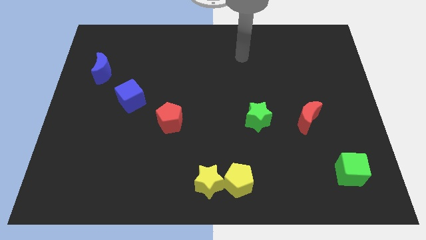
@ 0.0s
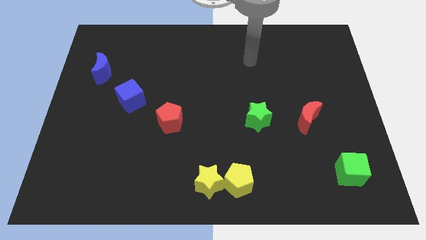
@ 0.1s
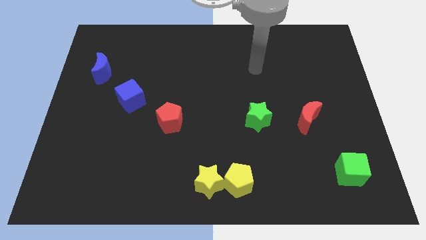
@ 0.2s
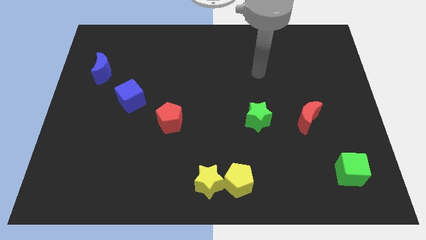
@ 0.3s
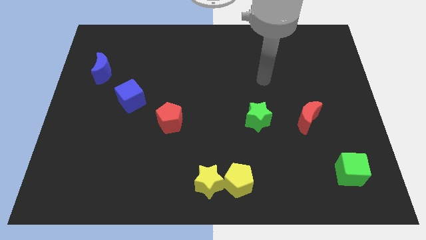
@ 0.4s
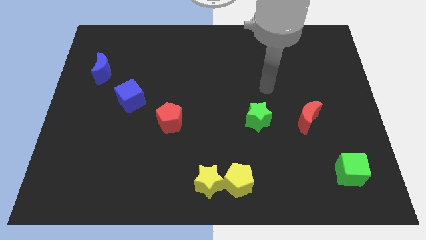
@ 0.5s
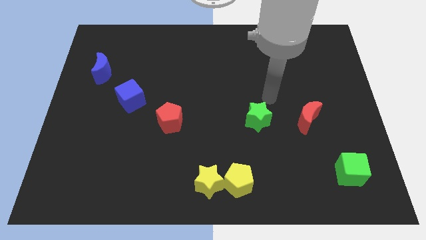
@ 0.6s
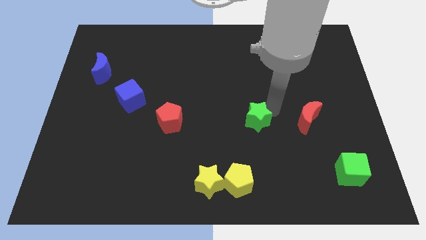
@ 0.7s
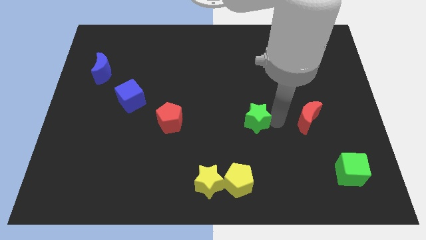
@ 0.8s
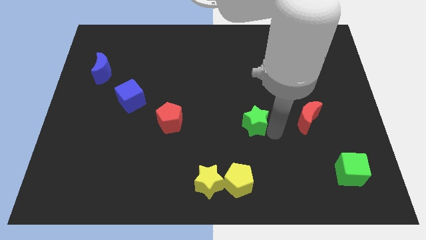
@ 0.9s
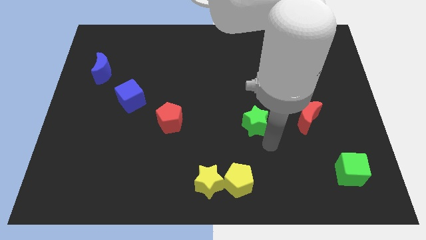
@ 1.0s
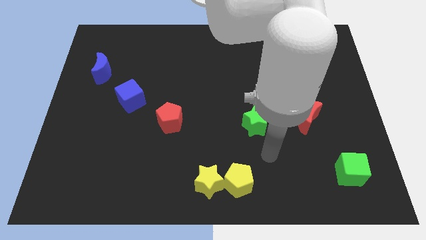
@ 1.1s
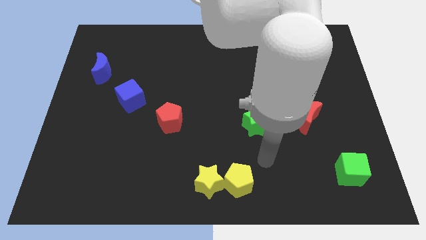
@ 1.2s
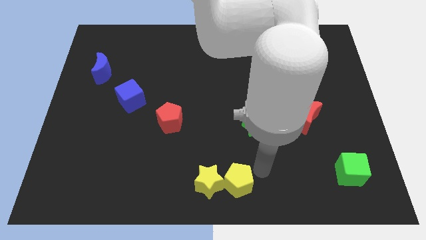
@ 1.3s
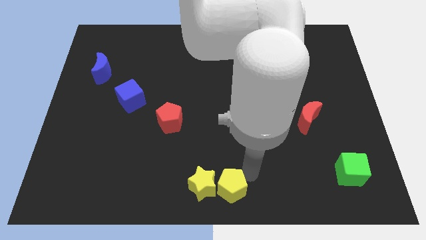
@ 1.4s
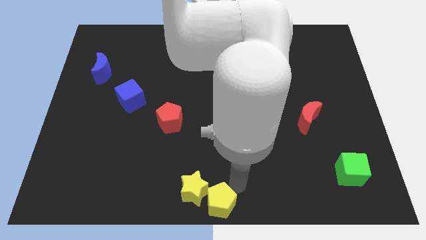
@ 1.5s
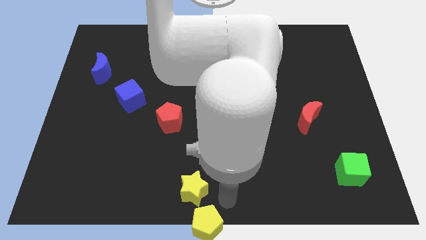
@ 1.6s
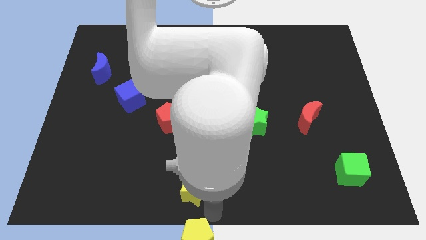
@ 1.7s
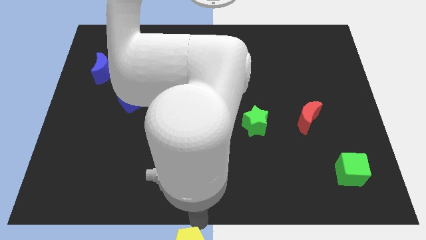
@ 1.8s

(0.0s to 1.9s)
pull the yellow star apart from the yellow pentagon

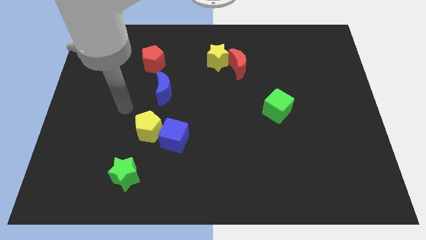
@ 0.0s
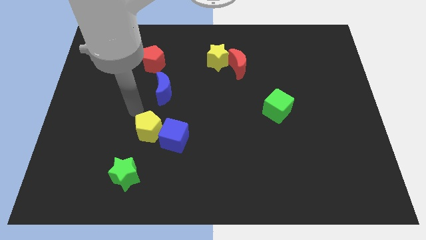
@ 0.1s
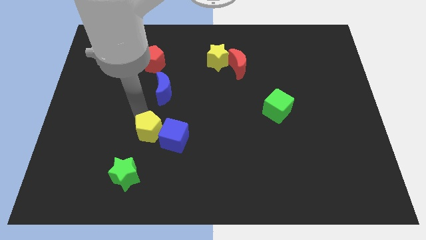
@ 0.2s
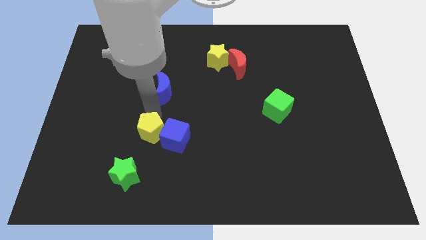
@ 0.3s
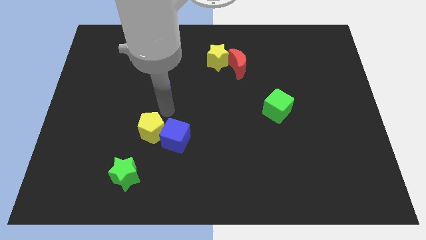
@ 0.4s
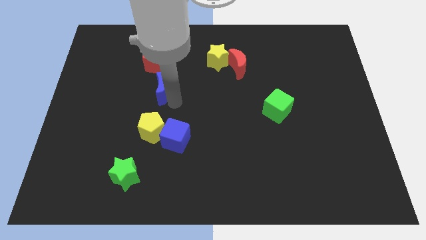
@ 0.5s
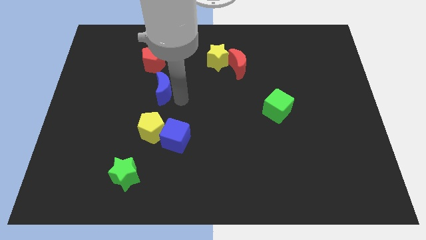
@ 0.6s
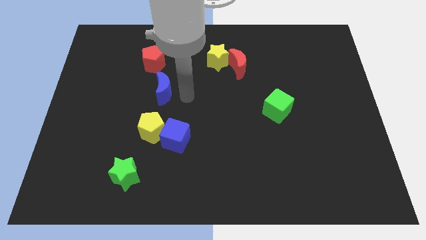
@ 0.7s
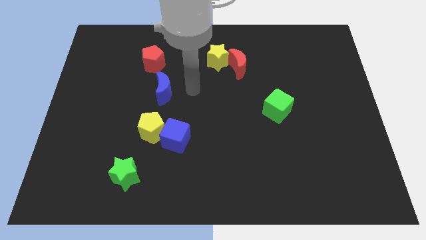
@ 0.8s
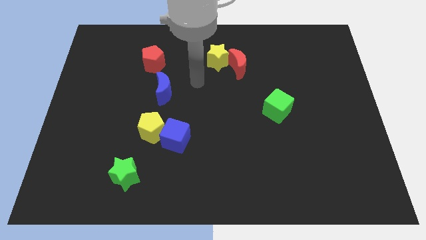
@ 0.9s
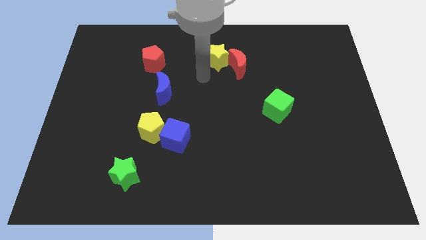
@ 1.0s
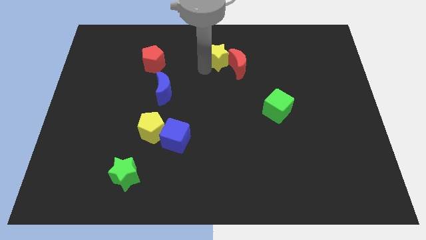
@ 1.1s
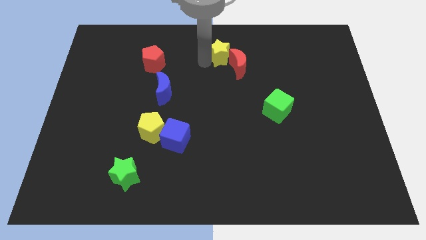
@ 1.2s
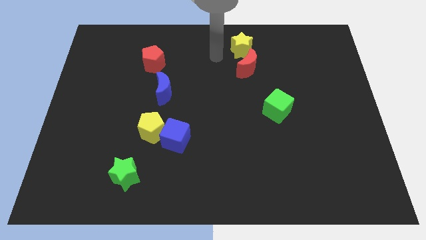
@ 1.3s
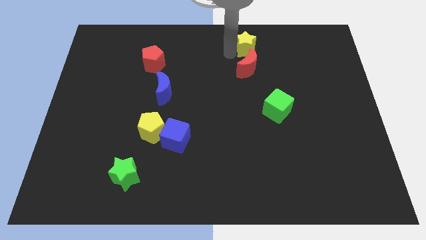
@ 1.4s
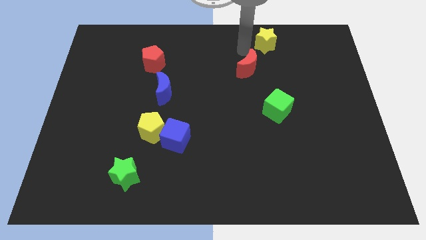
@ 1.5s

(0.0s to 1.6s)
pull the red moon apart from the yellow star

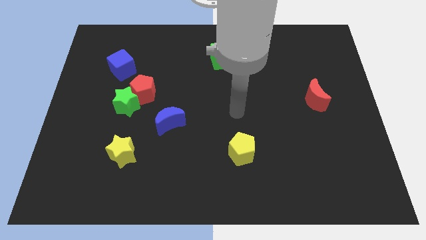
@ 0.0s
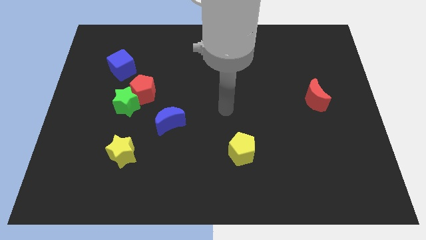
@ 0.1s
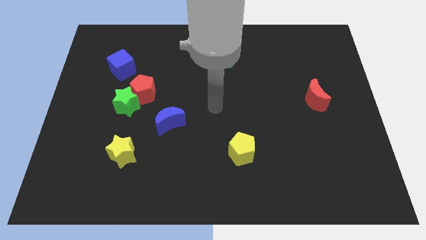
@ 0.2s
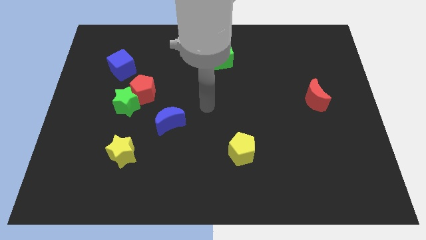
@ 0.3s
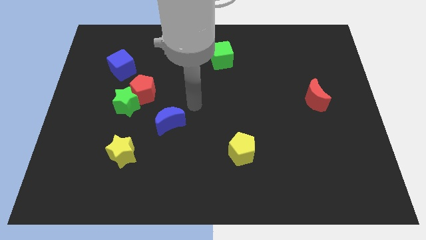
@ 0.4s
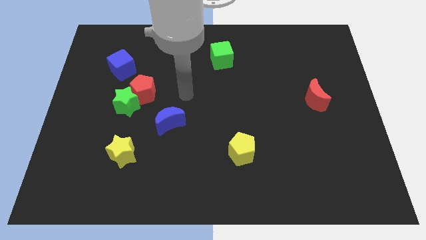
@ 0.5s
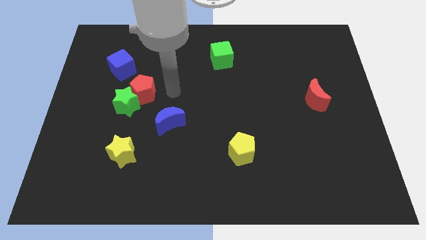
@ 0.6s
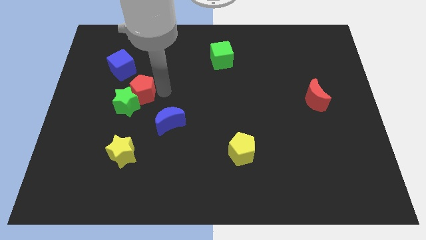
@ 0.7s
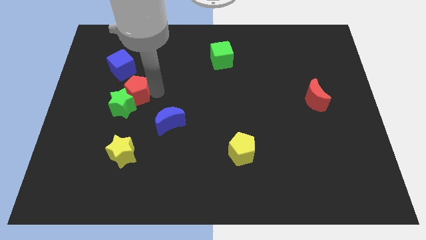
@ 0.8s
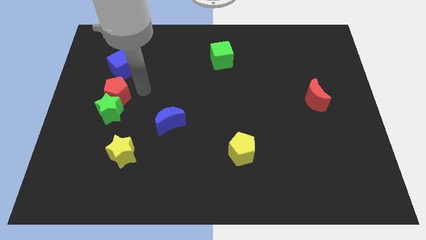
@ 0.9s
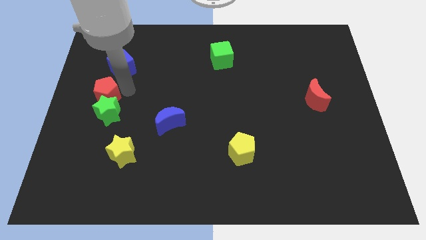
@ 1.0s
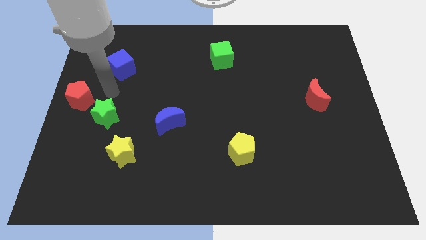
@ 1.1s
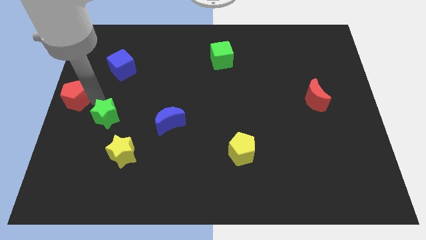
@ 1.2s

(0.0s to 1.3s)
move the green star away from the red pentagon

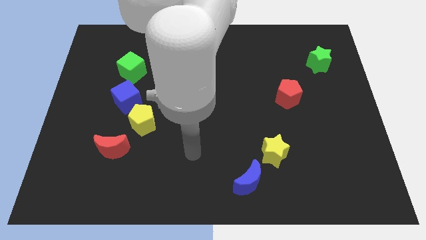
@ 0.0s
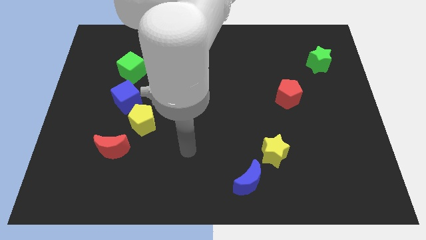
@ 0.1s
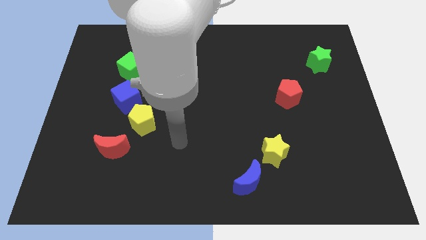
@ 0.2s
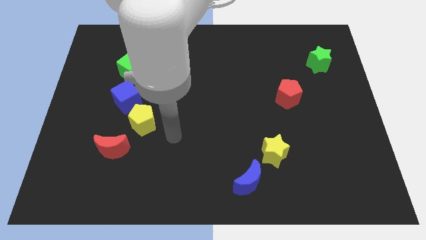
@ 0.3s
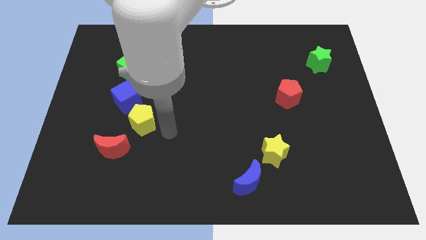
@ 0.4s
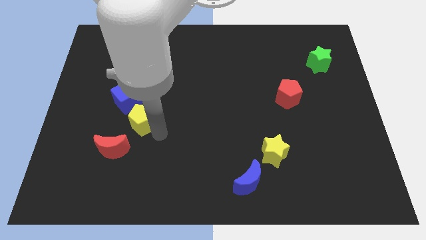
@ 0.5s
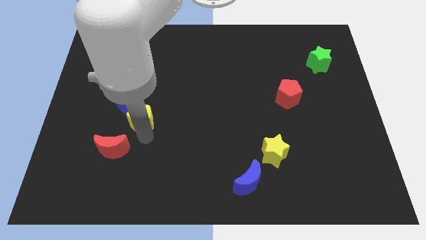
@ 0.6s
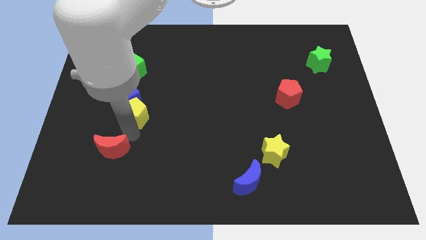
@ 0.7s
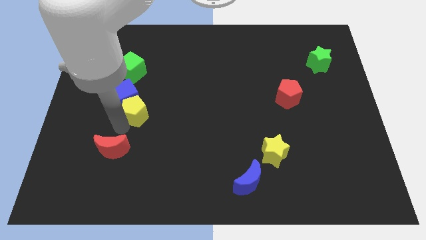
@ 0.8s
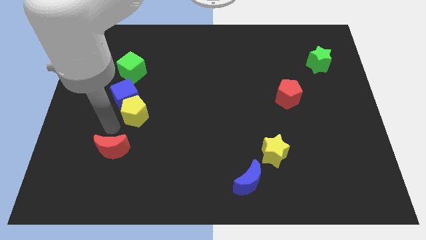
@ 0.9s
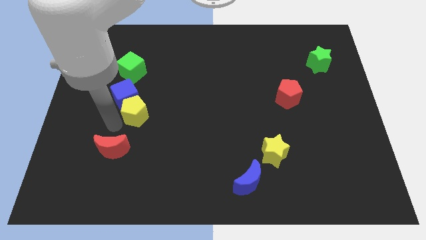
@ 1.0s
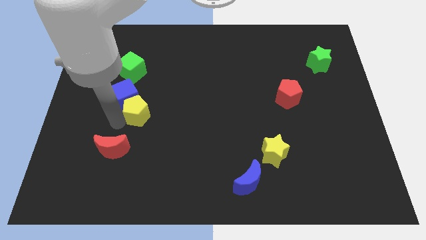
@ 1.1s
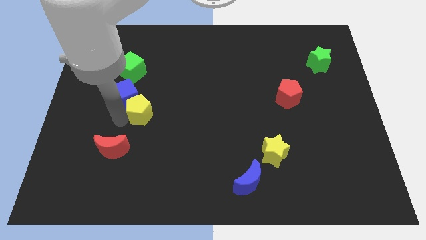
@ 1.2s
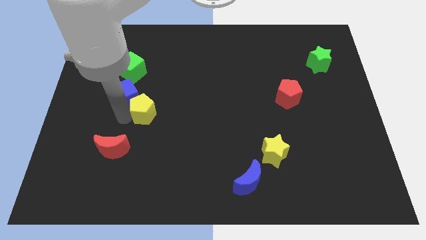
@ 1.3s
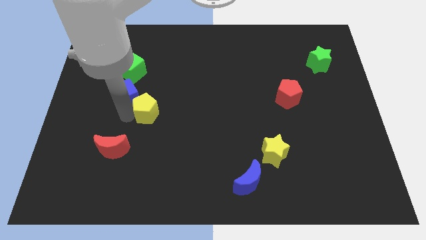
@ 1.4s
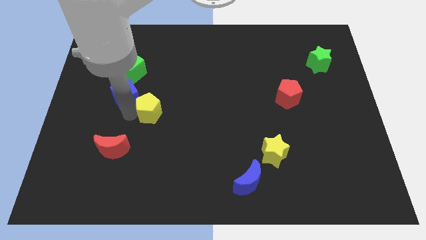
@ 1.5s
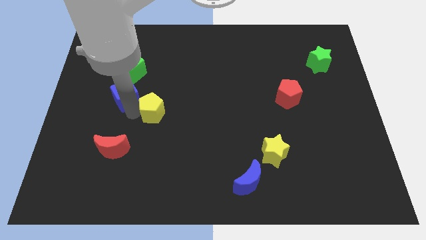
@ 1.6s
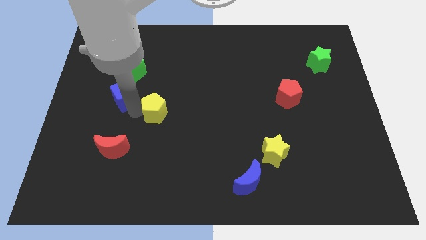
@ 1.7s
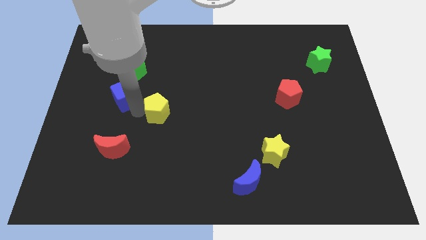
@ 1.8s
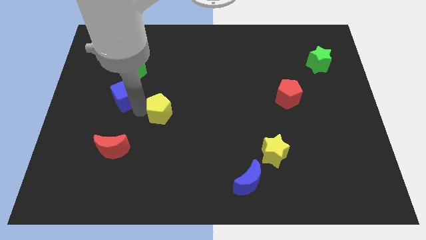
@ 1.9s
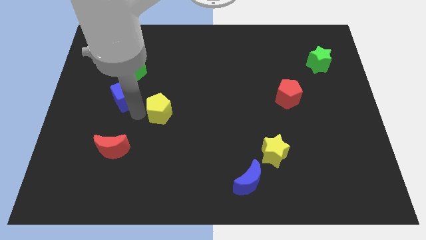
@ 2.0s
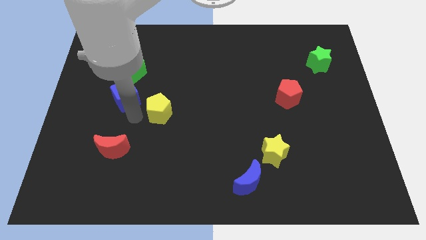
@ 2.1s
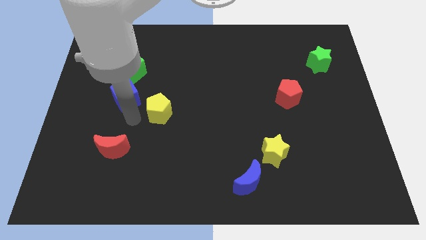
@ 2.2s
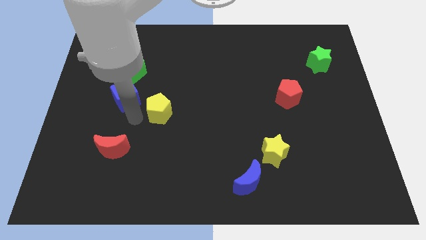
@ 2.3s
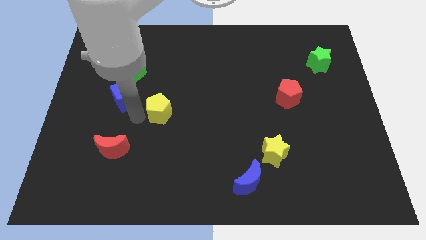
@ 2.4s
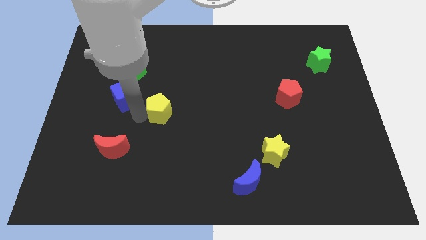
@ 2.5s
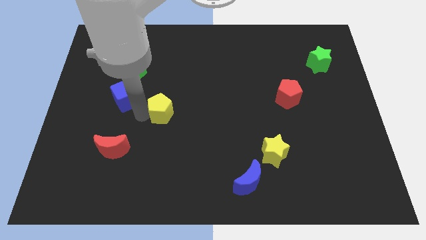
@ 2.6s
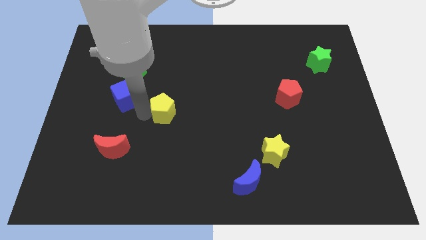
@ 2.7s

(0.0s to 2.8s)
move the yellow pentagon away from the blue cube and red moon

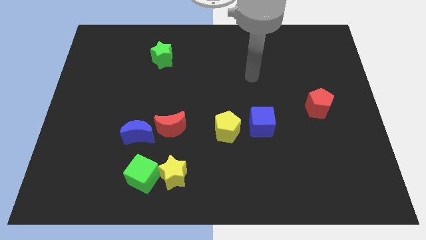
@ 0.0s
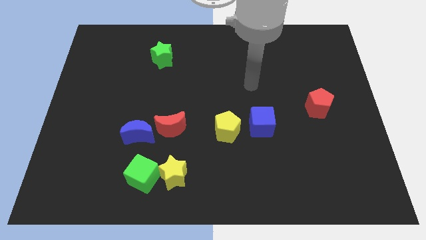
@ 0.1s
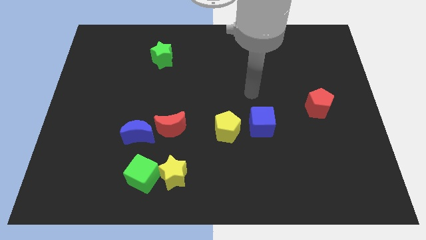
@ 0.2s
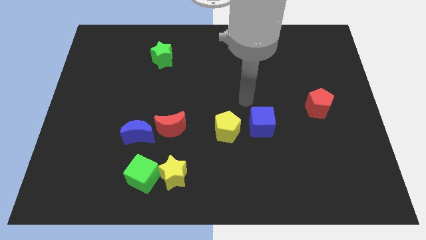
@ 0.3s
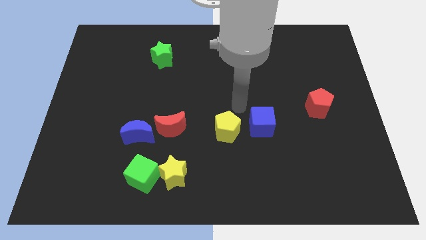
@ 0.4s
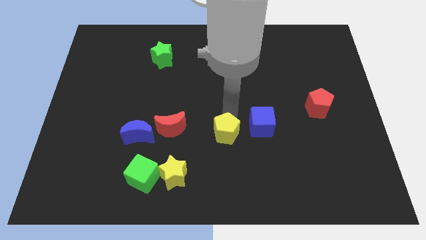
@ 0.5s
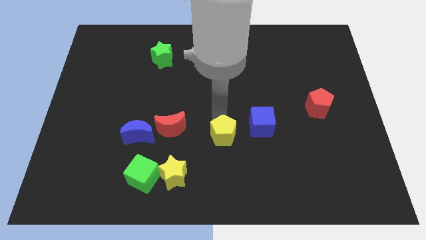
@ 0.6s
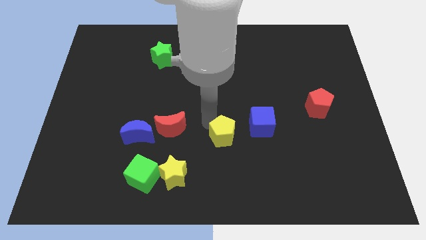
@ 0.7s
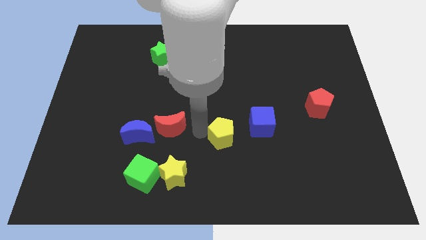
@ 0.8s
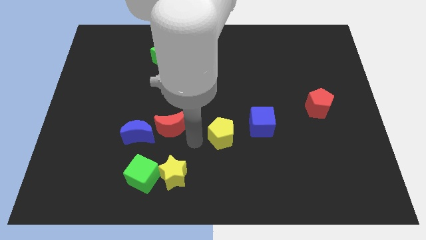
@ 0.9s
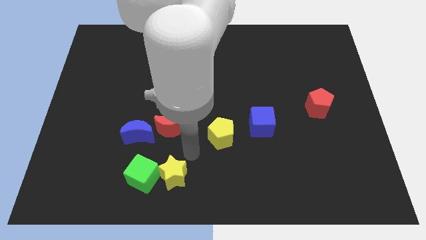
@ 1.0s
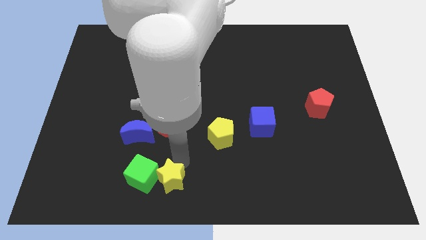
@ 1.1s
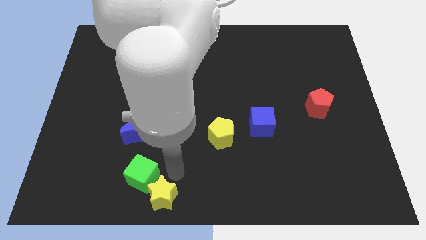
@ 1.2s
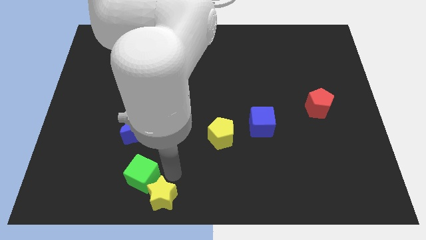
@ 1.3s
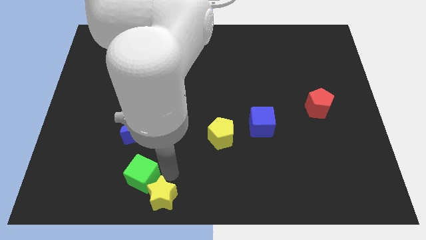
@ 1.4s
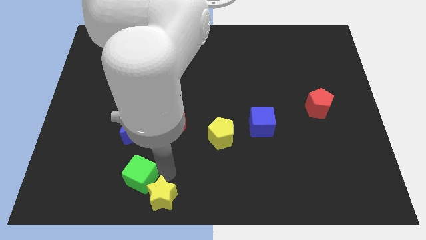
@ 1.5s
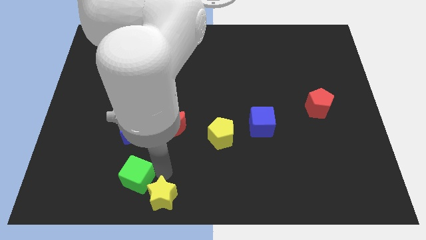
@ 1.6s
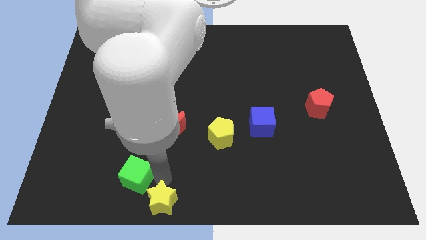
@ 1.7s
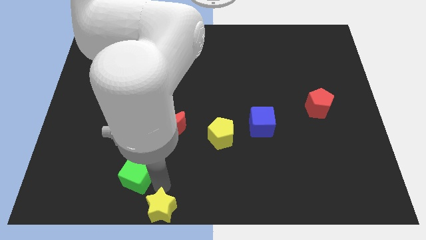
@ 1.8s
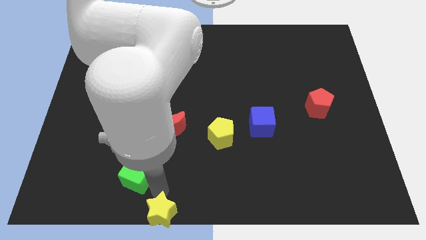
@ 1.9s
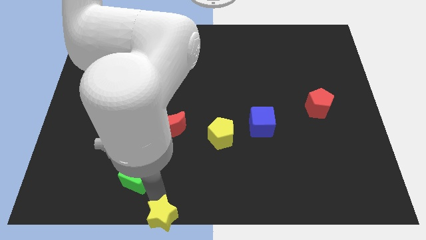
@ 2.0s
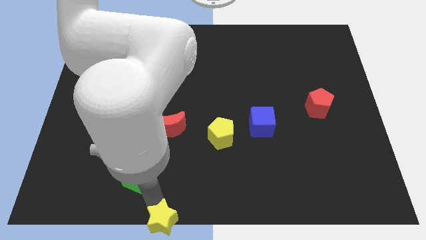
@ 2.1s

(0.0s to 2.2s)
separate the green cube from the yellow star
